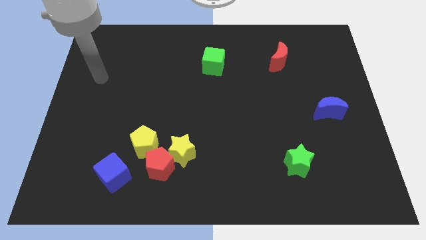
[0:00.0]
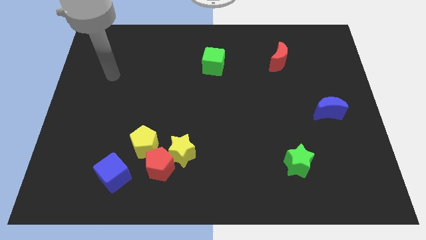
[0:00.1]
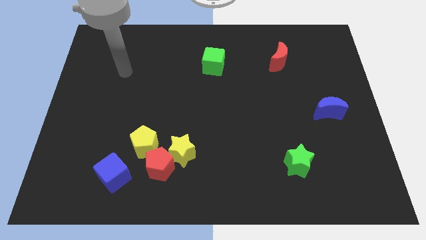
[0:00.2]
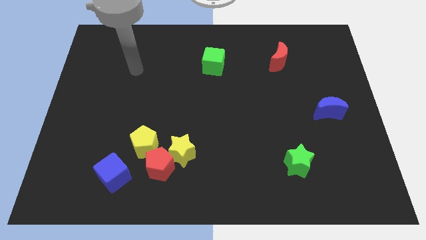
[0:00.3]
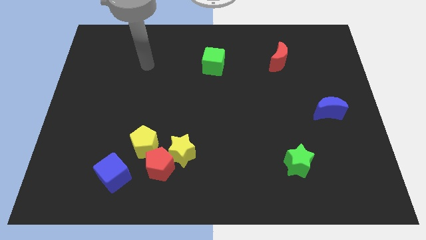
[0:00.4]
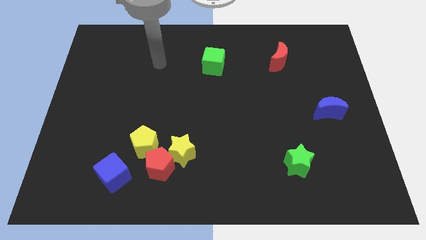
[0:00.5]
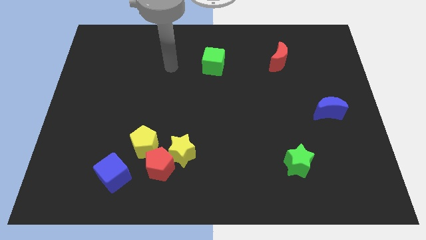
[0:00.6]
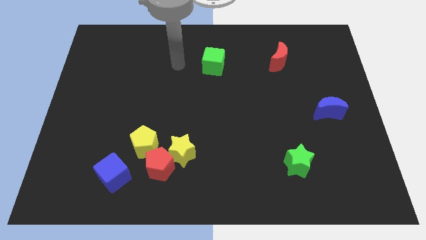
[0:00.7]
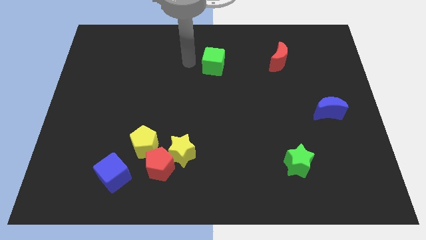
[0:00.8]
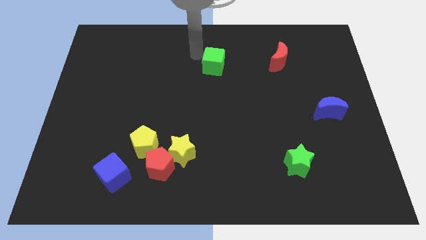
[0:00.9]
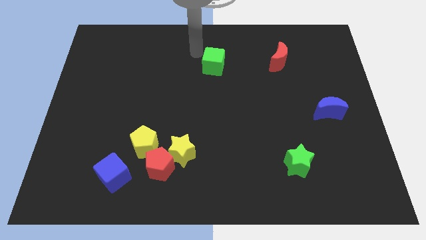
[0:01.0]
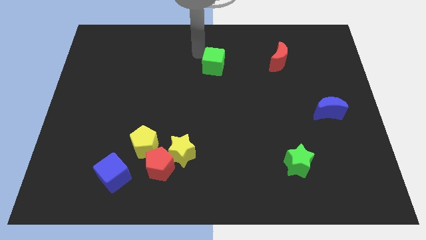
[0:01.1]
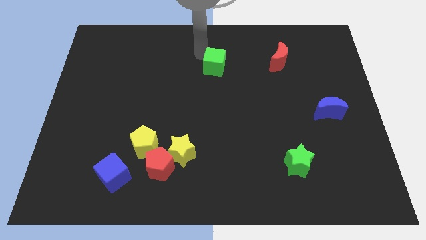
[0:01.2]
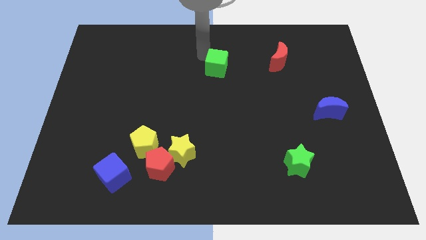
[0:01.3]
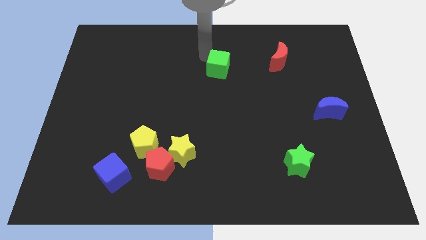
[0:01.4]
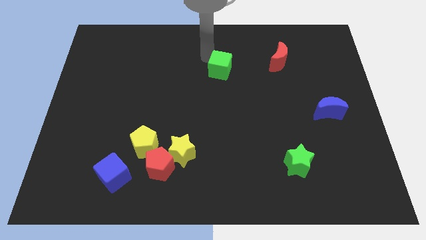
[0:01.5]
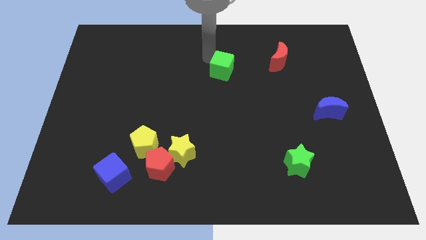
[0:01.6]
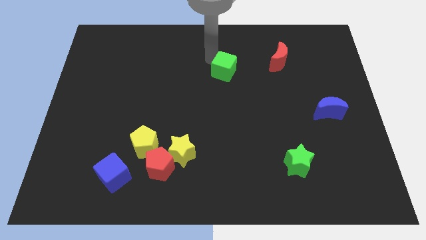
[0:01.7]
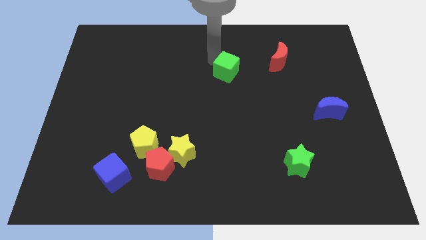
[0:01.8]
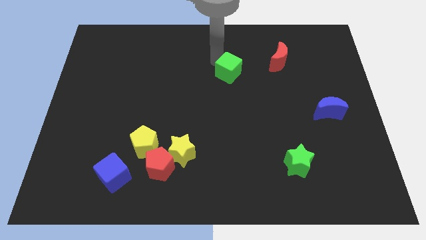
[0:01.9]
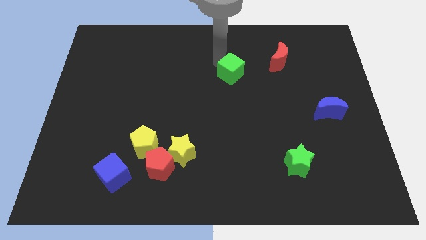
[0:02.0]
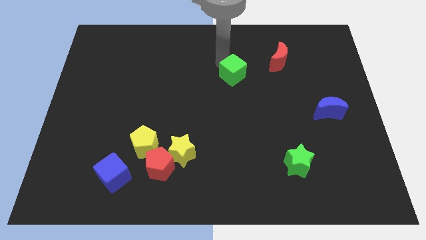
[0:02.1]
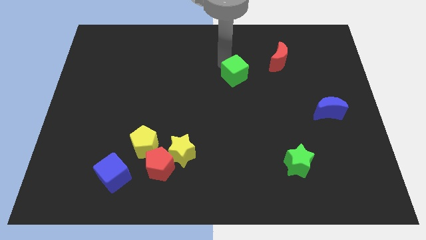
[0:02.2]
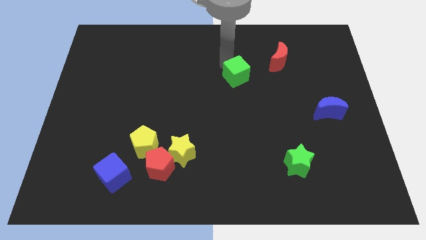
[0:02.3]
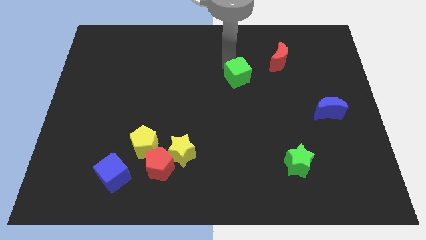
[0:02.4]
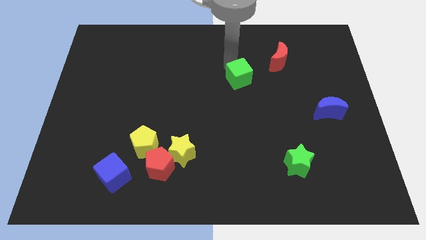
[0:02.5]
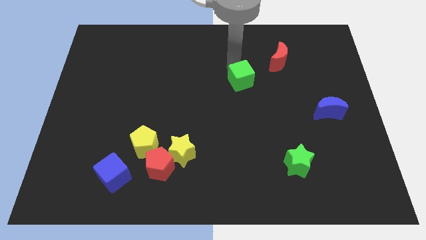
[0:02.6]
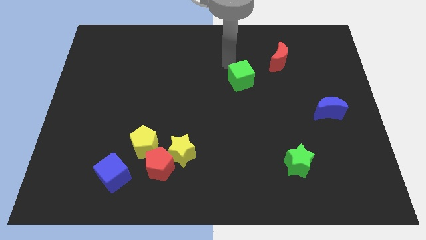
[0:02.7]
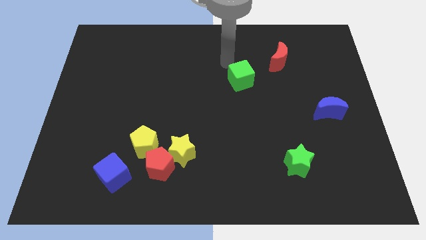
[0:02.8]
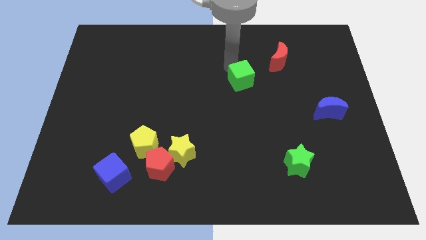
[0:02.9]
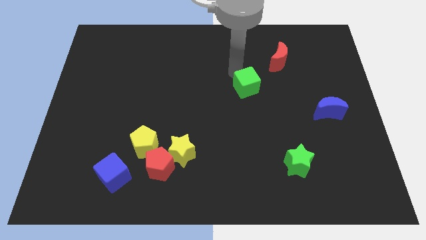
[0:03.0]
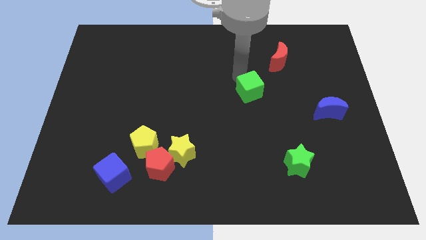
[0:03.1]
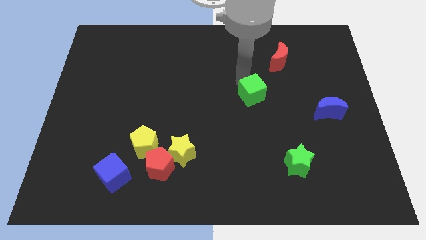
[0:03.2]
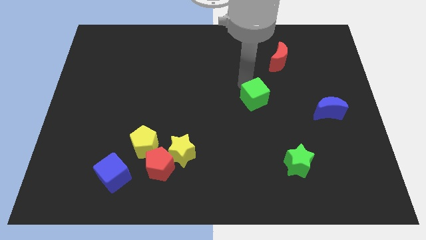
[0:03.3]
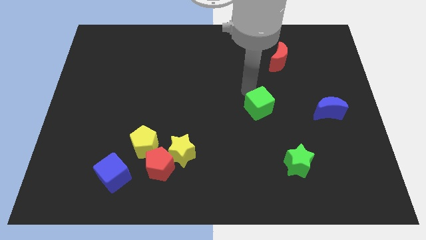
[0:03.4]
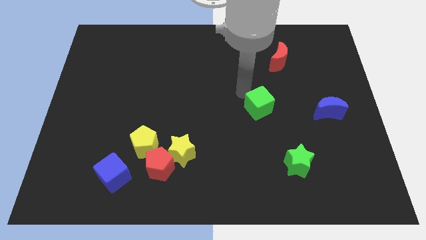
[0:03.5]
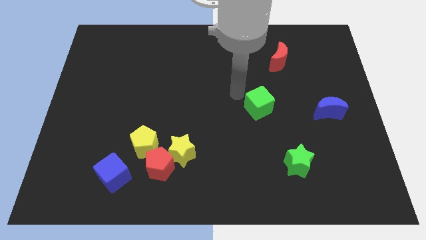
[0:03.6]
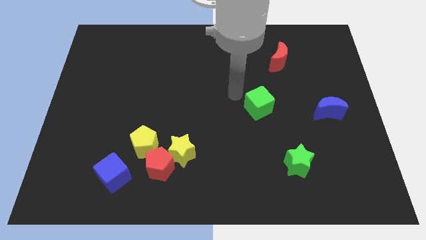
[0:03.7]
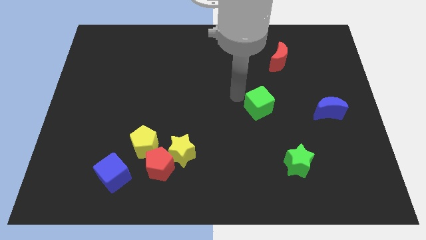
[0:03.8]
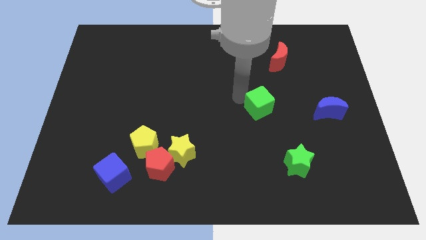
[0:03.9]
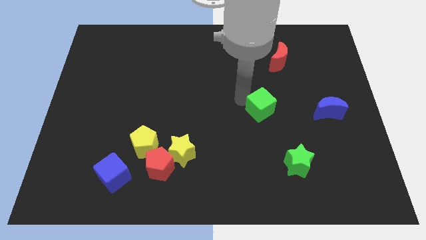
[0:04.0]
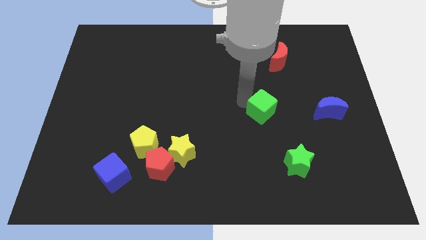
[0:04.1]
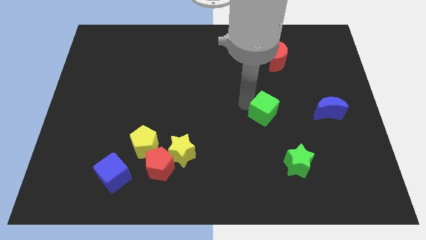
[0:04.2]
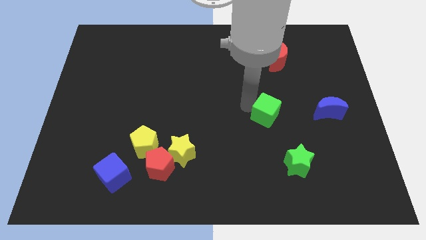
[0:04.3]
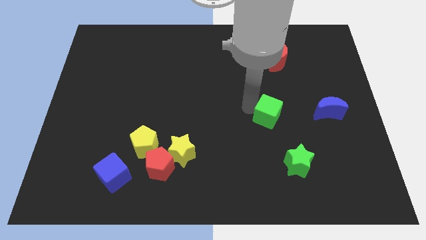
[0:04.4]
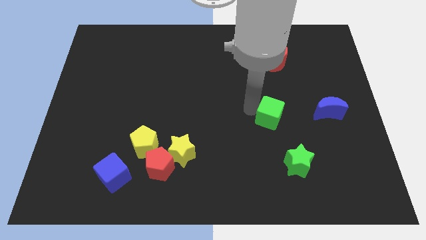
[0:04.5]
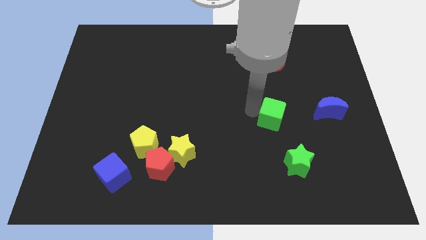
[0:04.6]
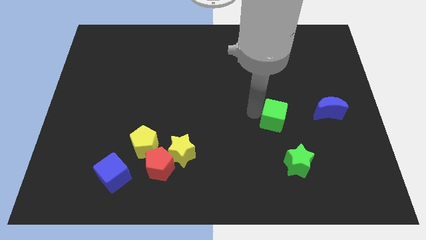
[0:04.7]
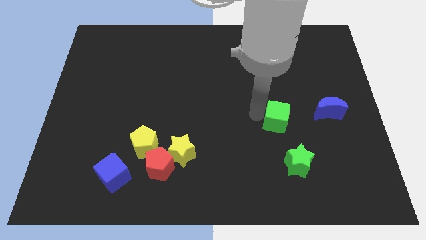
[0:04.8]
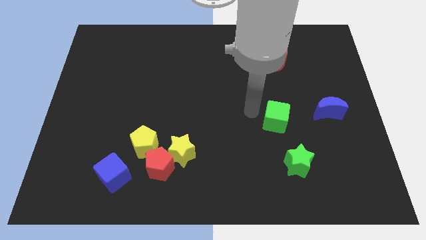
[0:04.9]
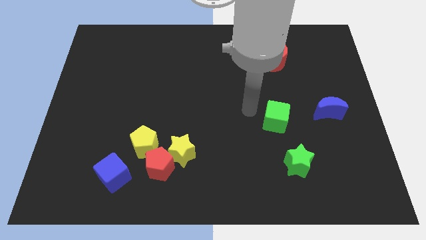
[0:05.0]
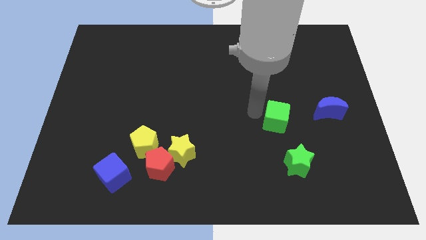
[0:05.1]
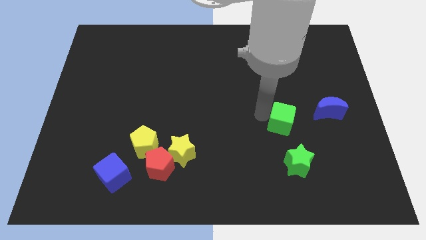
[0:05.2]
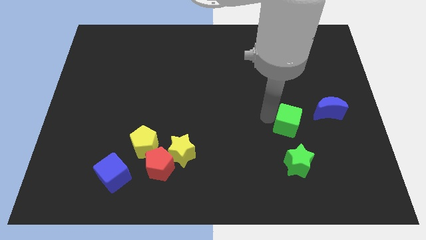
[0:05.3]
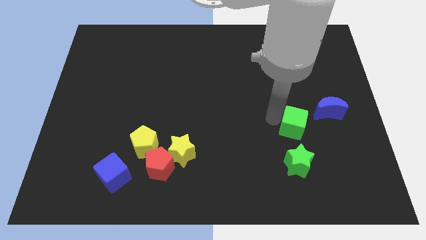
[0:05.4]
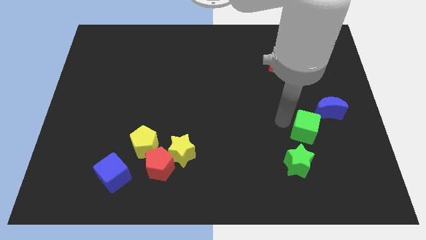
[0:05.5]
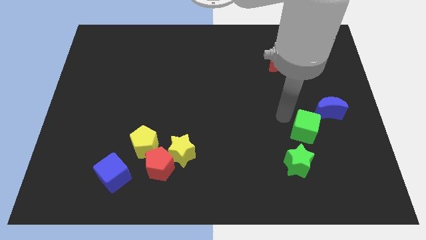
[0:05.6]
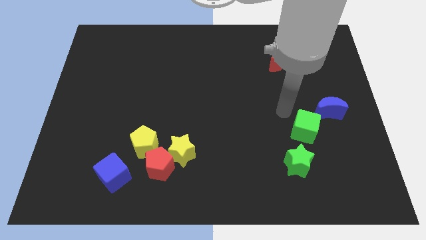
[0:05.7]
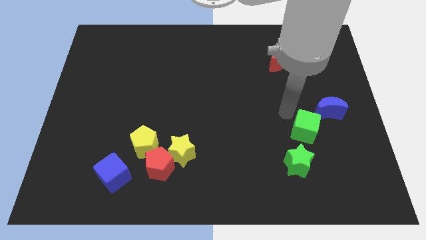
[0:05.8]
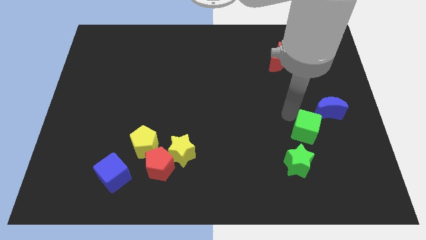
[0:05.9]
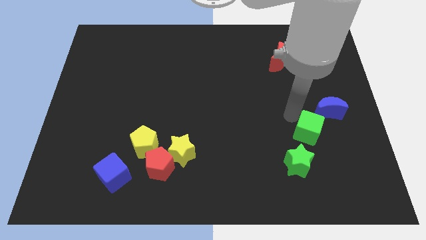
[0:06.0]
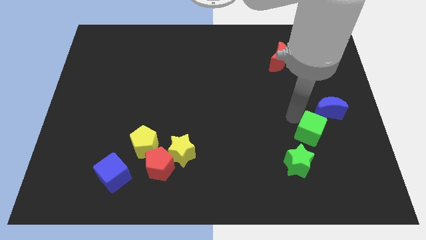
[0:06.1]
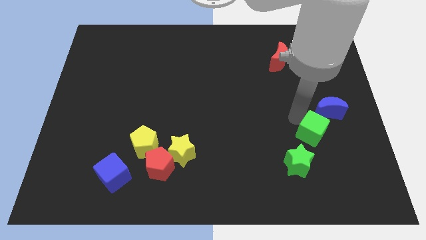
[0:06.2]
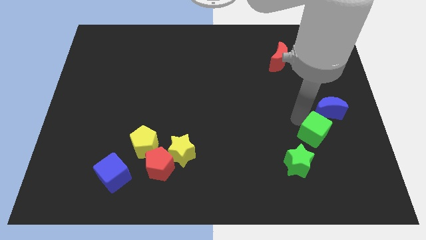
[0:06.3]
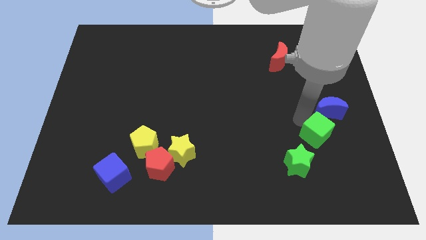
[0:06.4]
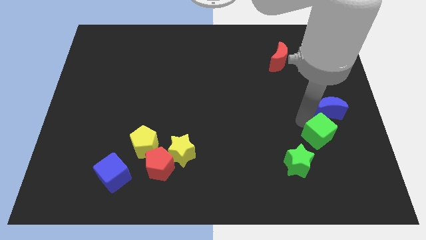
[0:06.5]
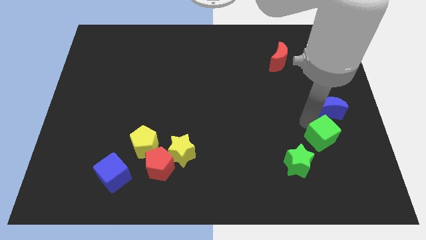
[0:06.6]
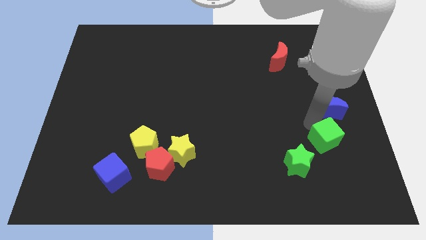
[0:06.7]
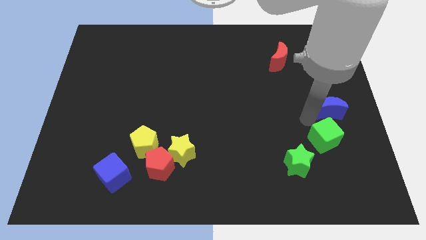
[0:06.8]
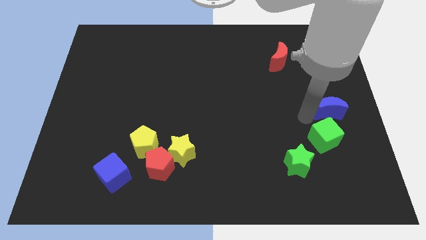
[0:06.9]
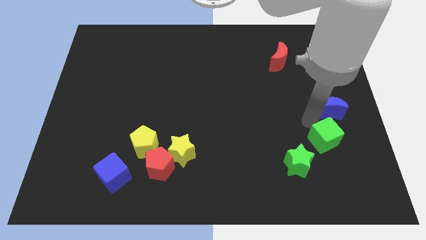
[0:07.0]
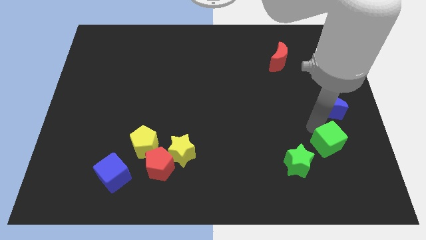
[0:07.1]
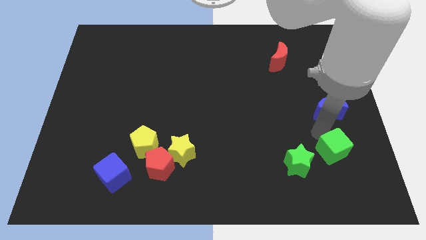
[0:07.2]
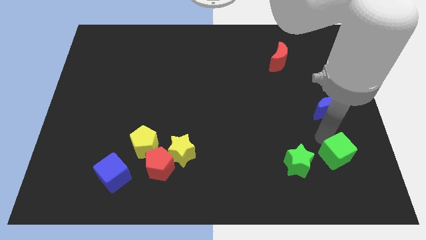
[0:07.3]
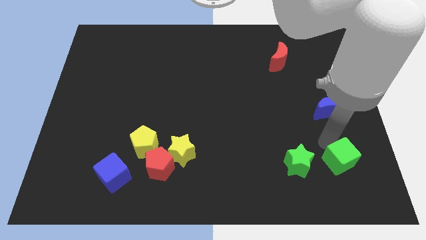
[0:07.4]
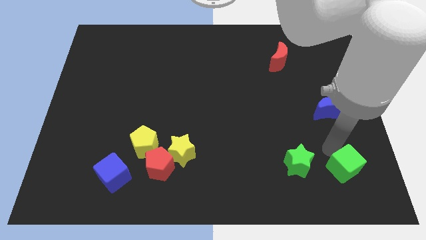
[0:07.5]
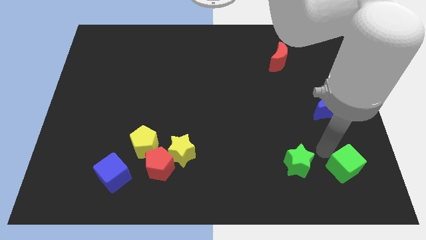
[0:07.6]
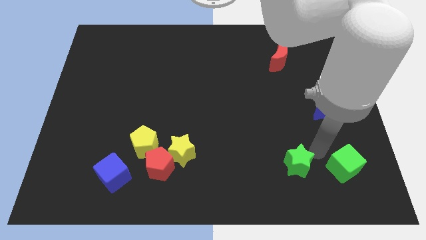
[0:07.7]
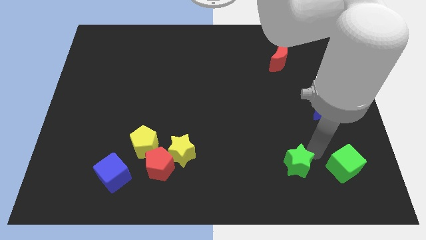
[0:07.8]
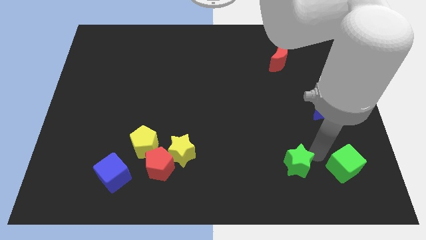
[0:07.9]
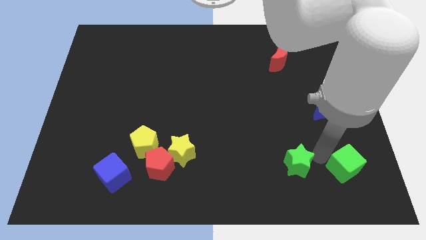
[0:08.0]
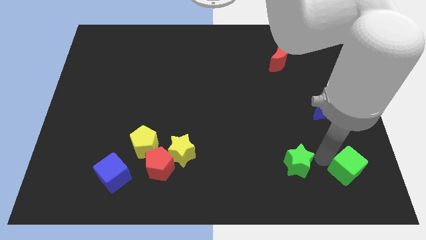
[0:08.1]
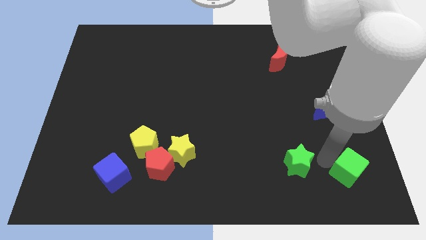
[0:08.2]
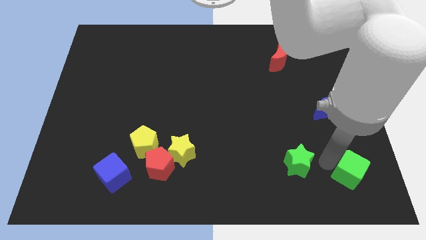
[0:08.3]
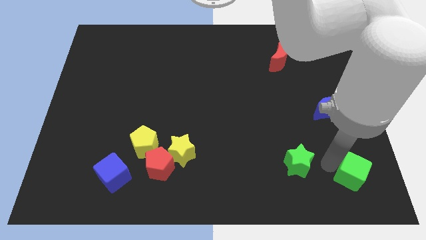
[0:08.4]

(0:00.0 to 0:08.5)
move the green cube to the bottom right corner
